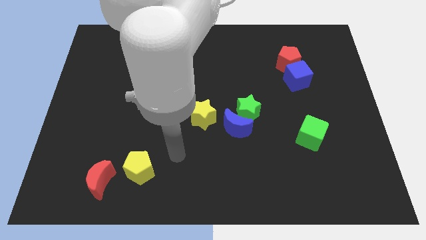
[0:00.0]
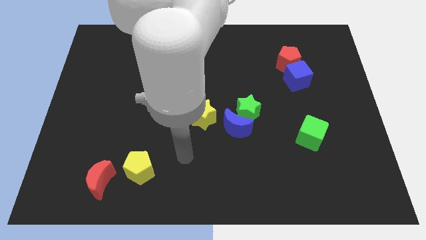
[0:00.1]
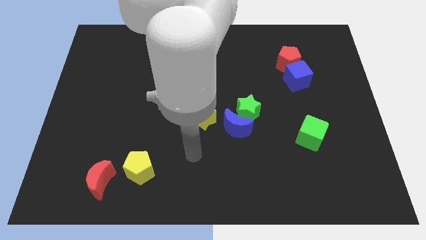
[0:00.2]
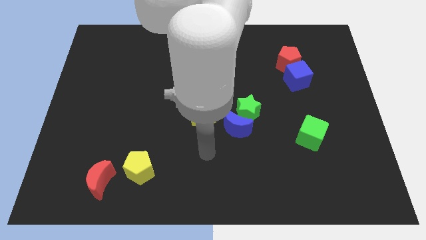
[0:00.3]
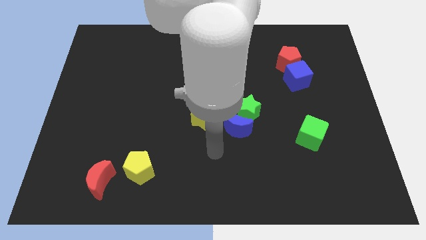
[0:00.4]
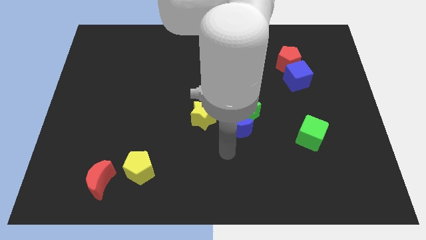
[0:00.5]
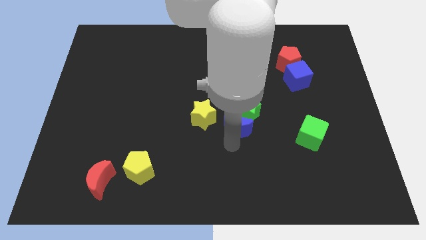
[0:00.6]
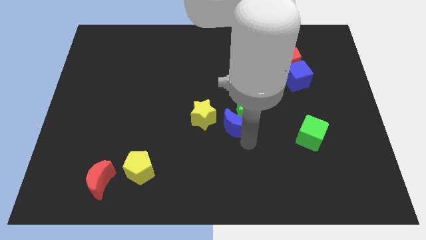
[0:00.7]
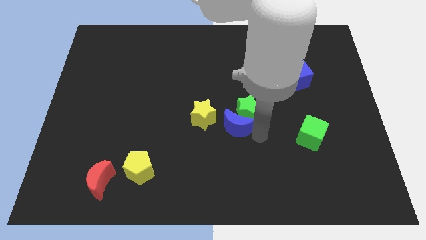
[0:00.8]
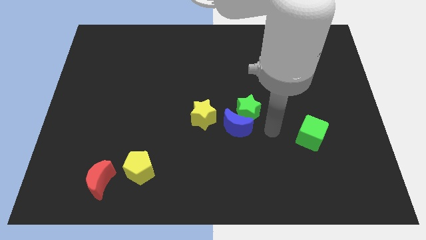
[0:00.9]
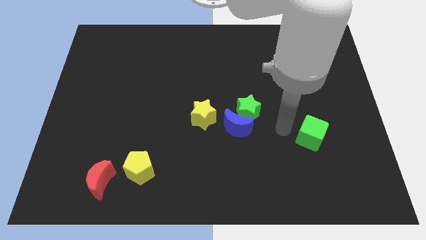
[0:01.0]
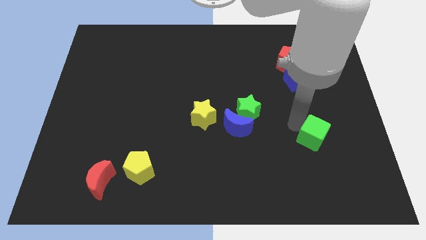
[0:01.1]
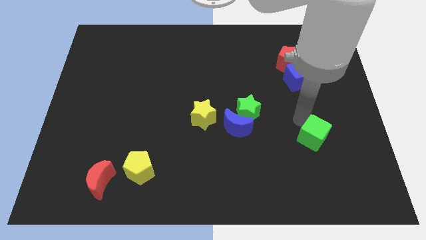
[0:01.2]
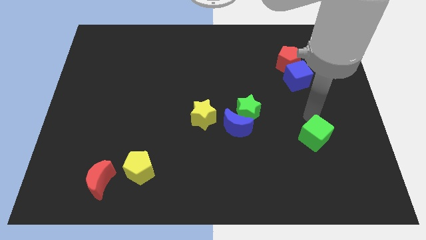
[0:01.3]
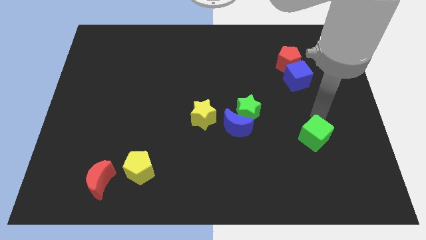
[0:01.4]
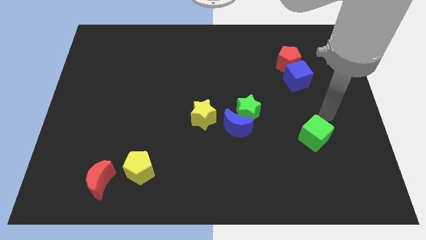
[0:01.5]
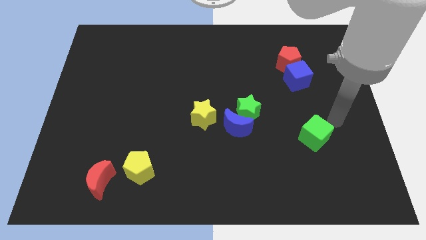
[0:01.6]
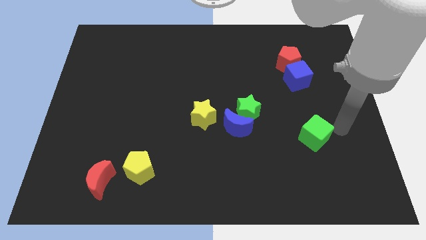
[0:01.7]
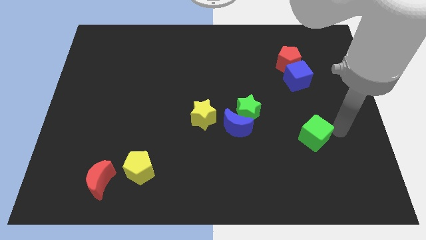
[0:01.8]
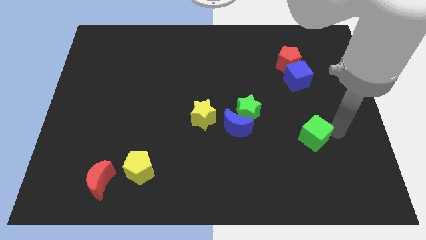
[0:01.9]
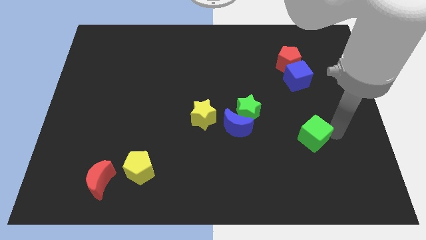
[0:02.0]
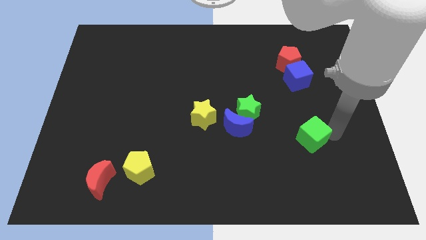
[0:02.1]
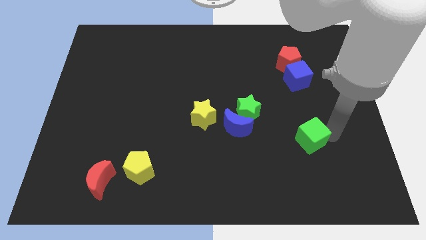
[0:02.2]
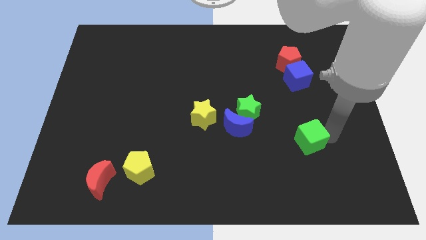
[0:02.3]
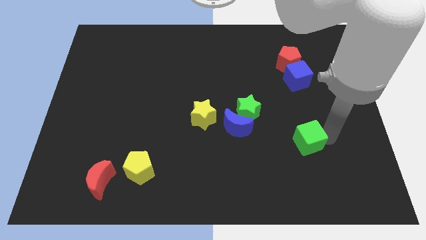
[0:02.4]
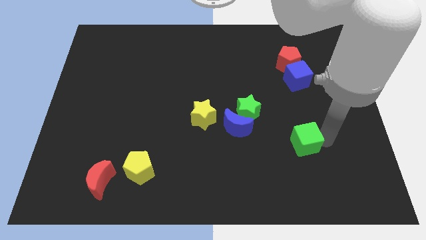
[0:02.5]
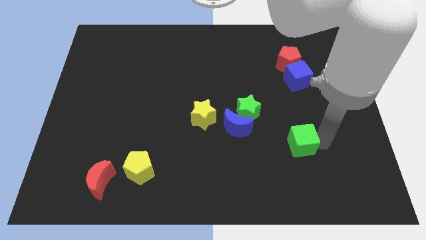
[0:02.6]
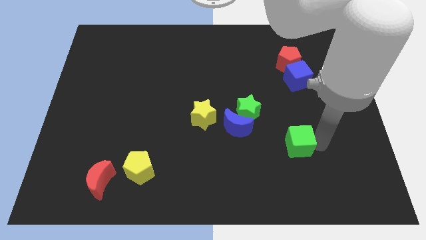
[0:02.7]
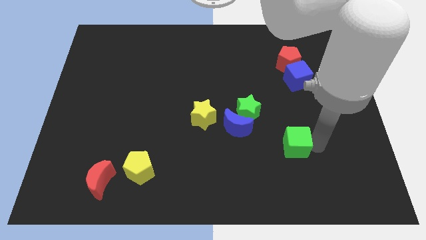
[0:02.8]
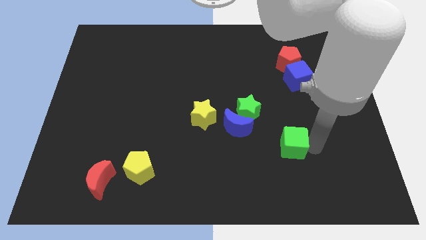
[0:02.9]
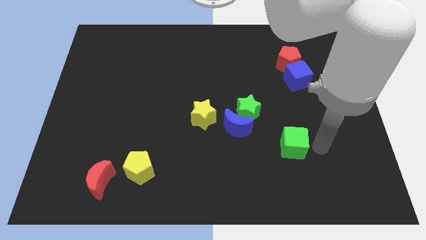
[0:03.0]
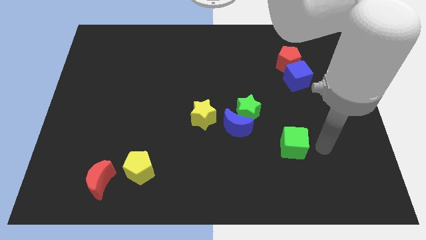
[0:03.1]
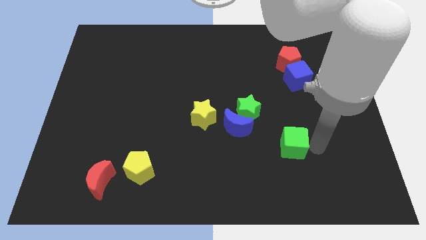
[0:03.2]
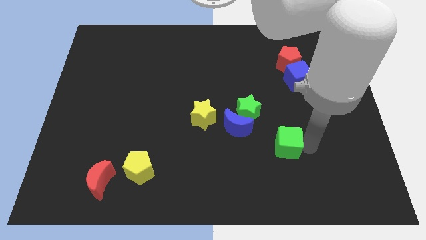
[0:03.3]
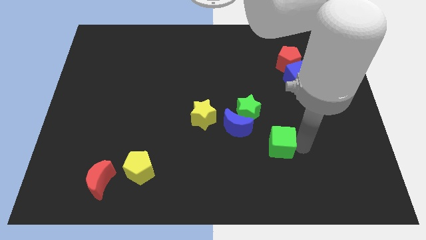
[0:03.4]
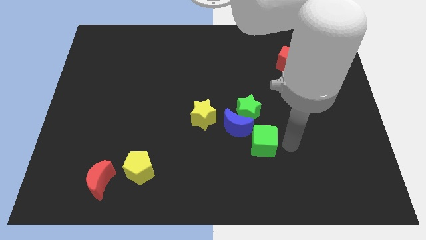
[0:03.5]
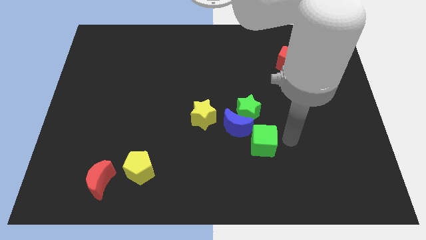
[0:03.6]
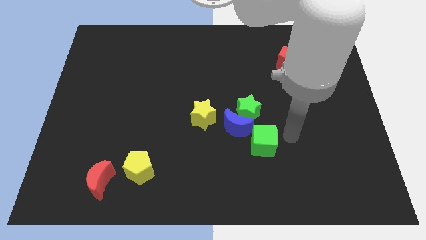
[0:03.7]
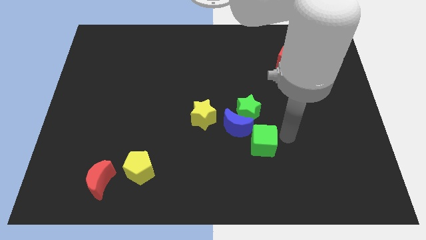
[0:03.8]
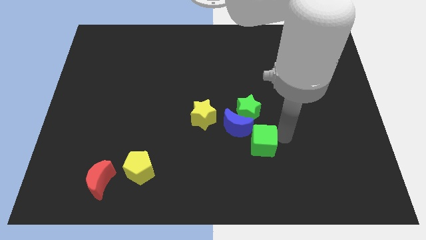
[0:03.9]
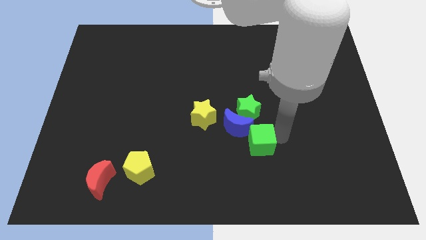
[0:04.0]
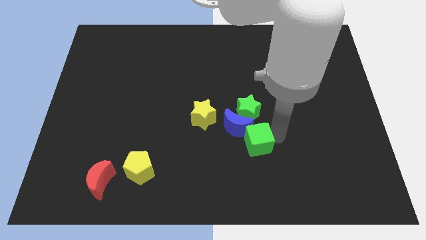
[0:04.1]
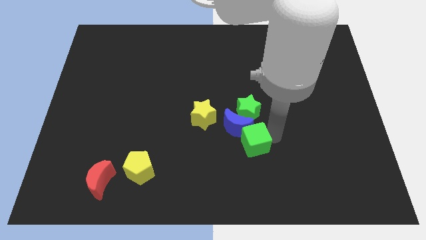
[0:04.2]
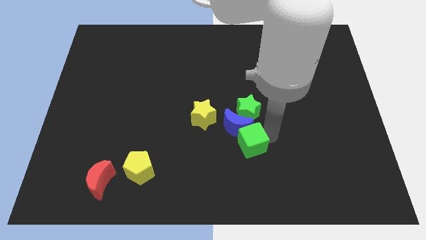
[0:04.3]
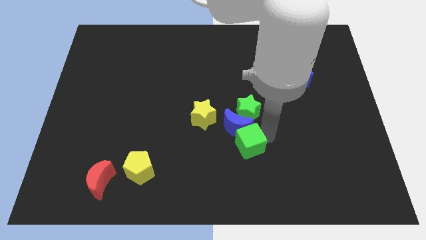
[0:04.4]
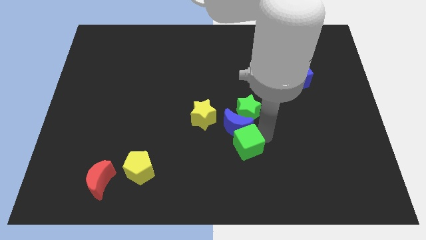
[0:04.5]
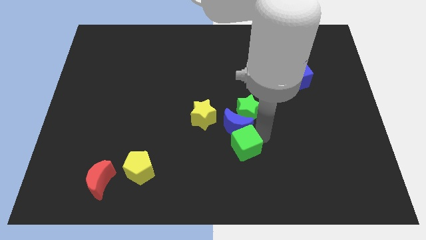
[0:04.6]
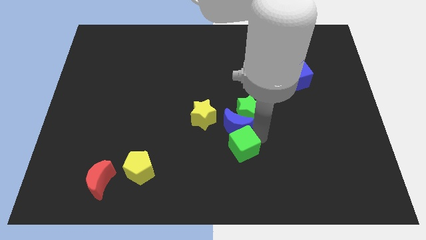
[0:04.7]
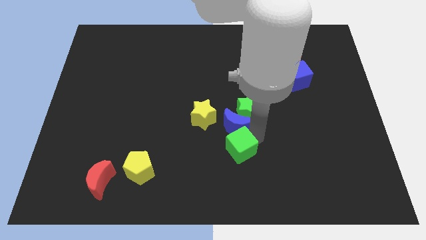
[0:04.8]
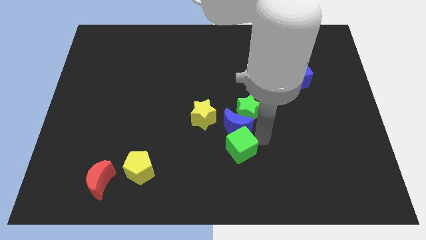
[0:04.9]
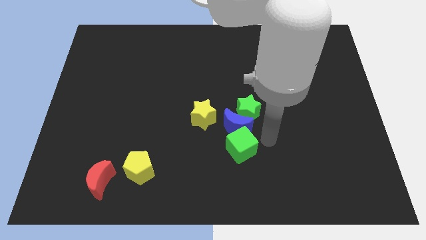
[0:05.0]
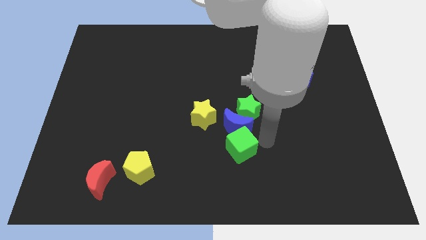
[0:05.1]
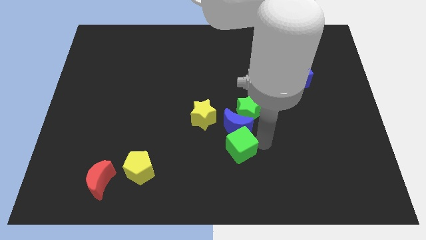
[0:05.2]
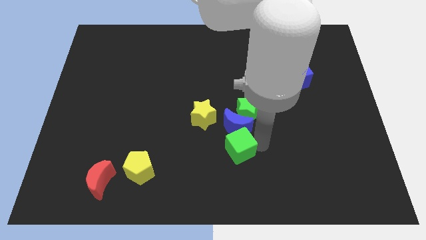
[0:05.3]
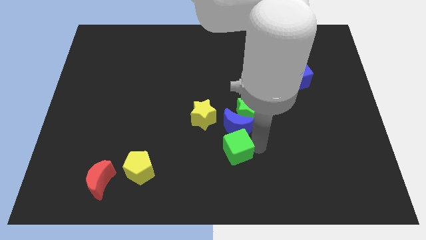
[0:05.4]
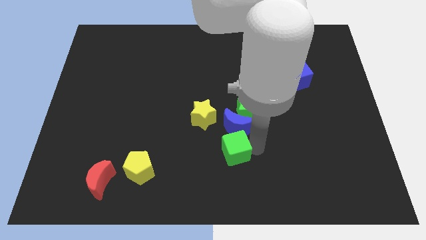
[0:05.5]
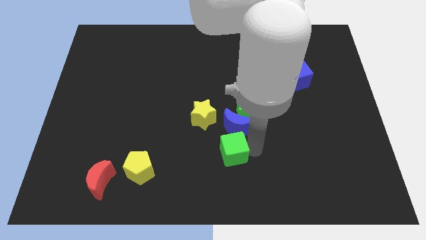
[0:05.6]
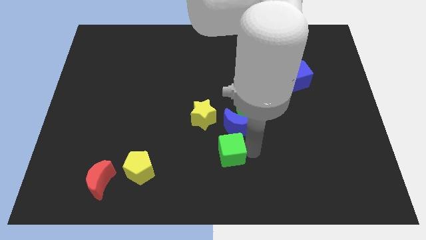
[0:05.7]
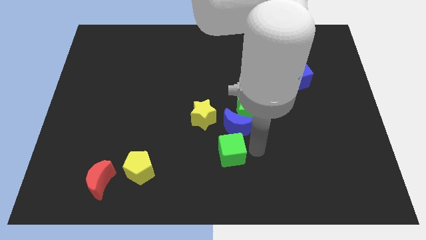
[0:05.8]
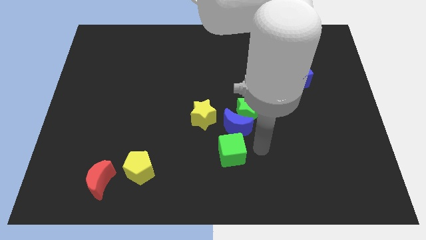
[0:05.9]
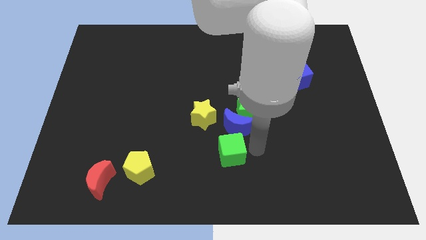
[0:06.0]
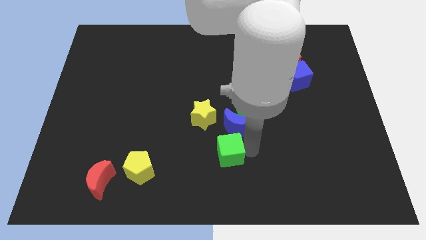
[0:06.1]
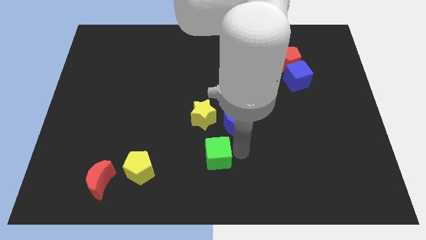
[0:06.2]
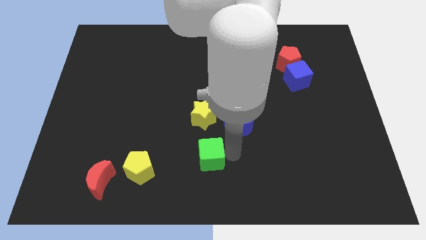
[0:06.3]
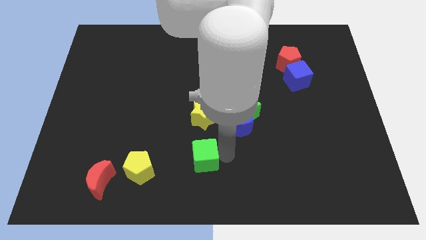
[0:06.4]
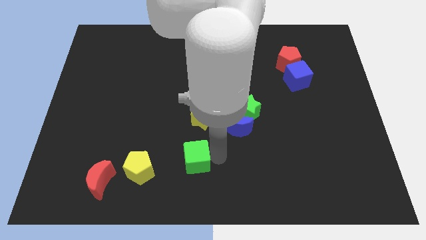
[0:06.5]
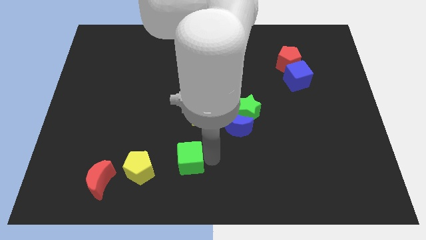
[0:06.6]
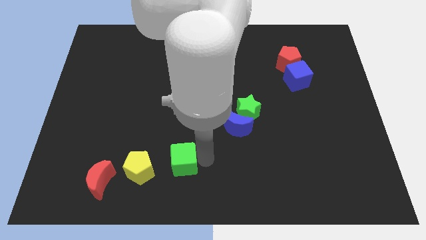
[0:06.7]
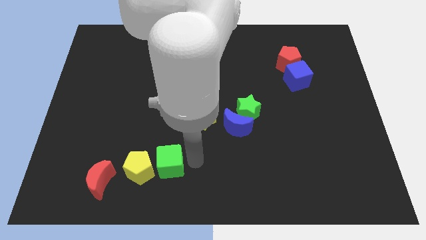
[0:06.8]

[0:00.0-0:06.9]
slide the green cube close to the yellow pentagon

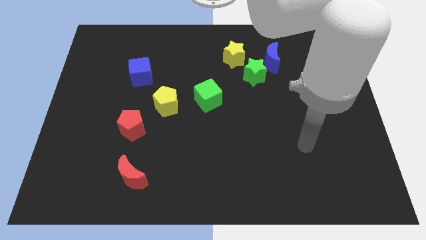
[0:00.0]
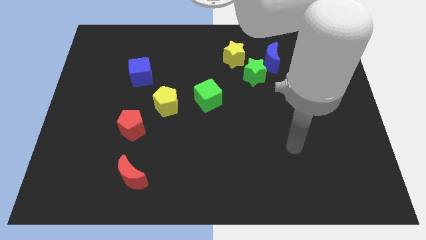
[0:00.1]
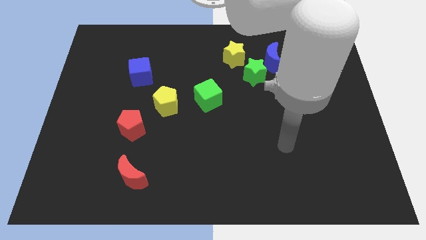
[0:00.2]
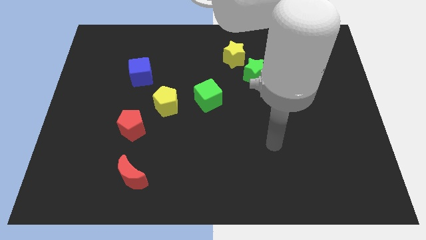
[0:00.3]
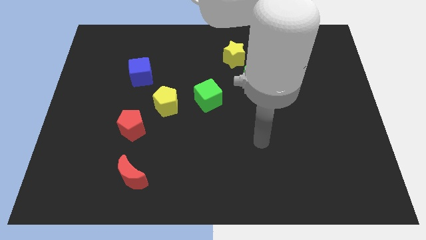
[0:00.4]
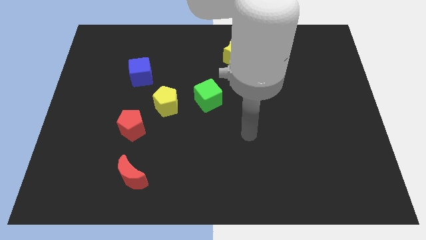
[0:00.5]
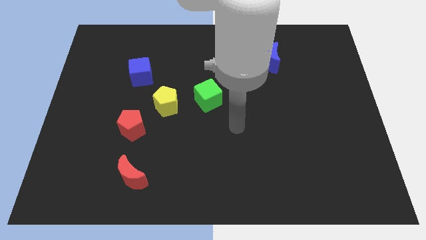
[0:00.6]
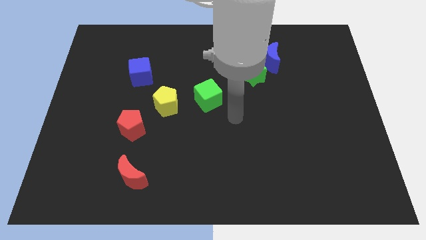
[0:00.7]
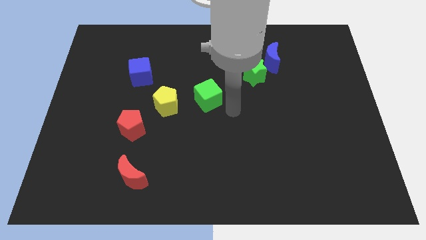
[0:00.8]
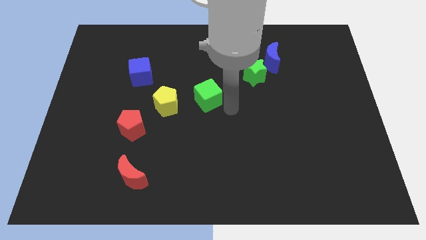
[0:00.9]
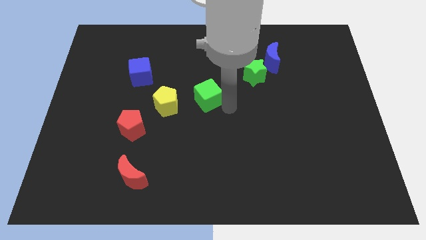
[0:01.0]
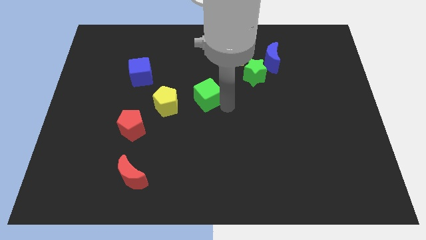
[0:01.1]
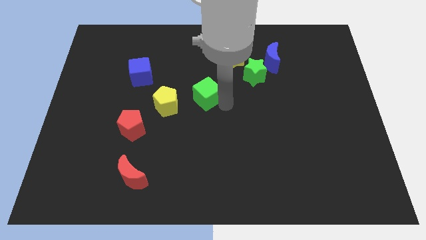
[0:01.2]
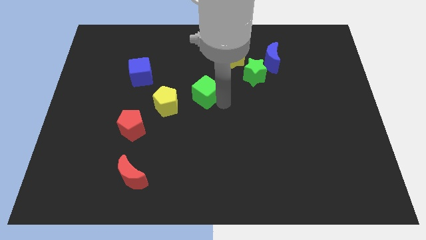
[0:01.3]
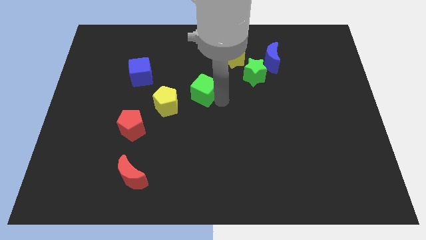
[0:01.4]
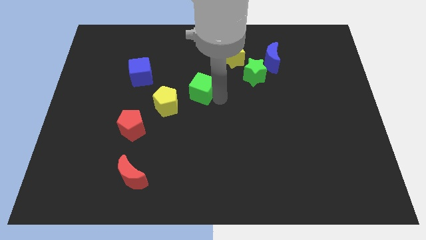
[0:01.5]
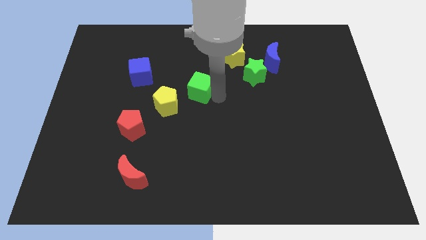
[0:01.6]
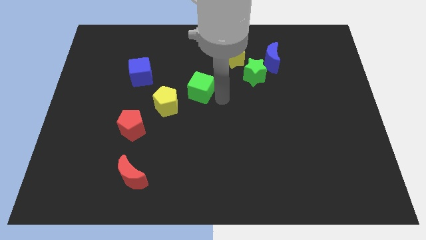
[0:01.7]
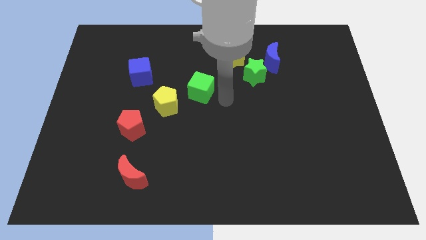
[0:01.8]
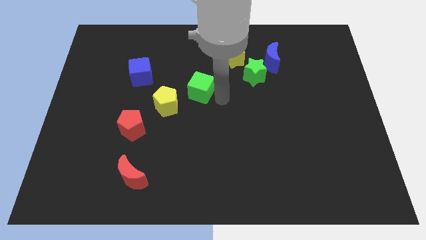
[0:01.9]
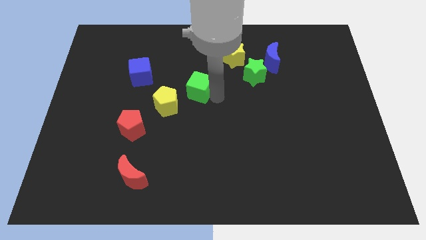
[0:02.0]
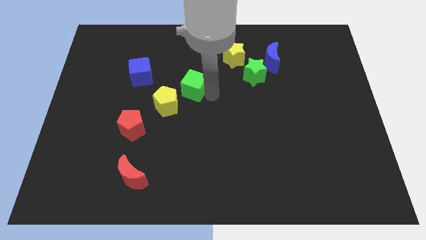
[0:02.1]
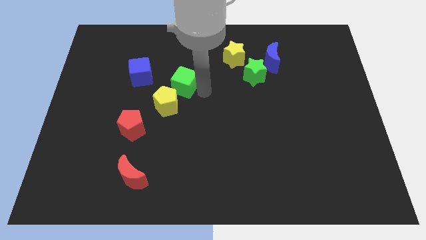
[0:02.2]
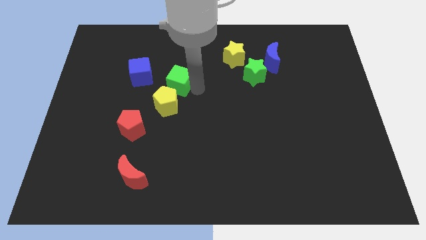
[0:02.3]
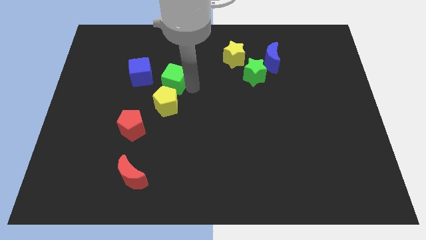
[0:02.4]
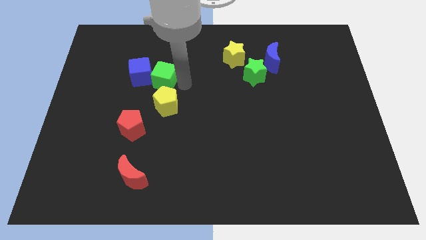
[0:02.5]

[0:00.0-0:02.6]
move the green cube next to the blue cube
